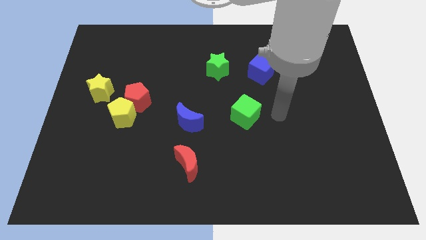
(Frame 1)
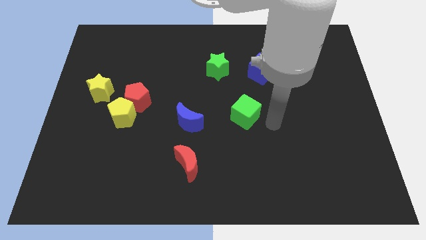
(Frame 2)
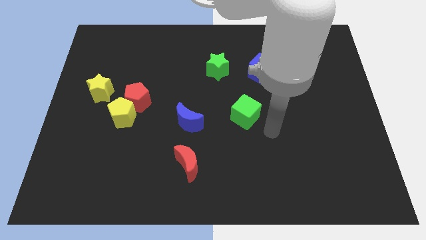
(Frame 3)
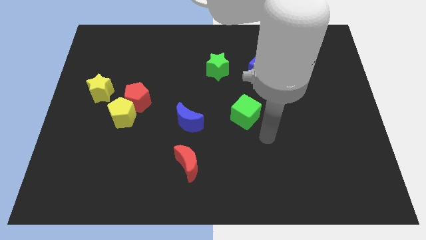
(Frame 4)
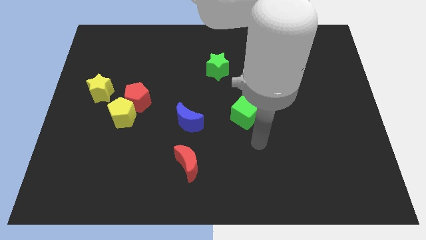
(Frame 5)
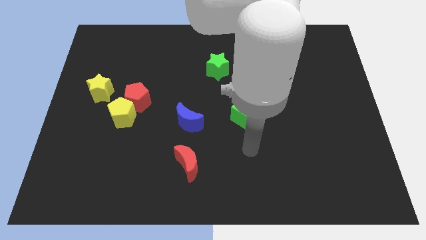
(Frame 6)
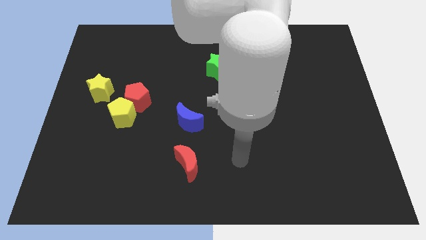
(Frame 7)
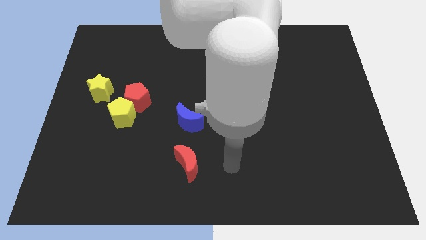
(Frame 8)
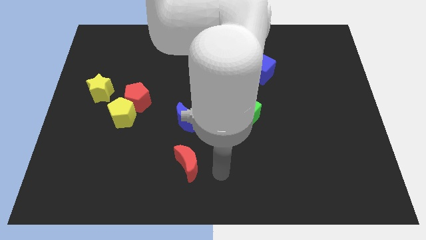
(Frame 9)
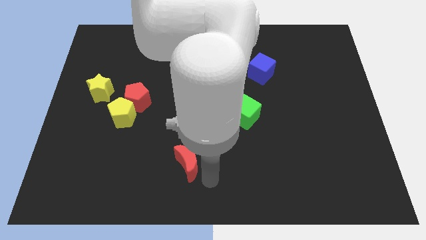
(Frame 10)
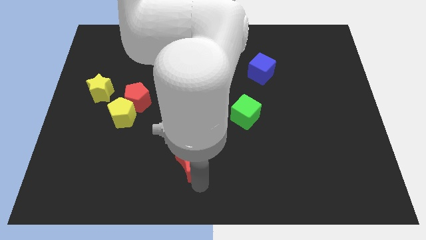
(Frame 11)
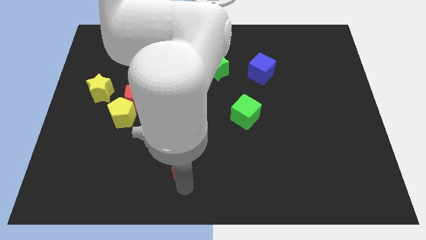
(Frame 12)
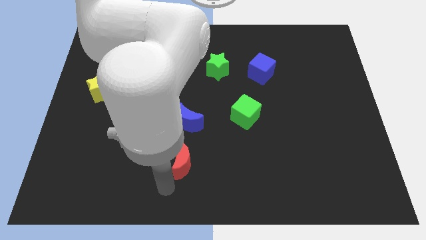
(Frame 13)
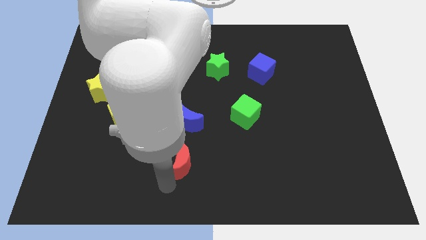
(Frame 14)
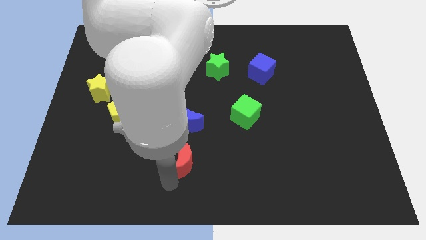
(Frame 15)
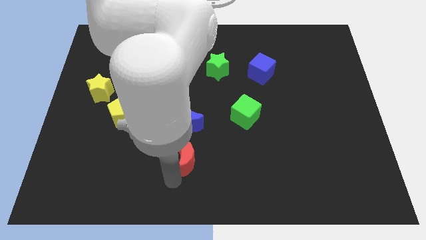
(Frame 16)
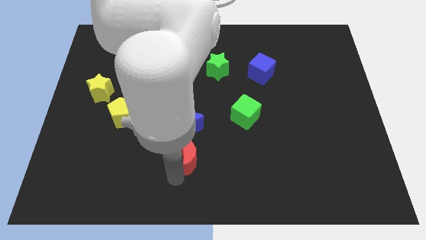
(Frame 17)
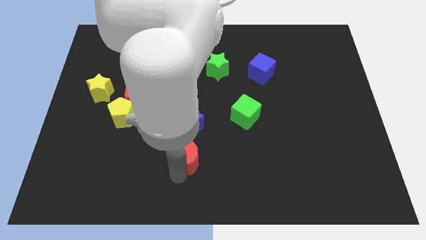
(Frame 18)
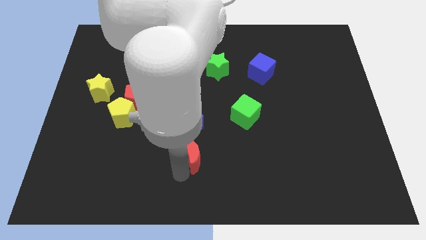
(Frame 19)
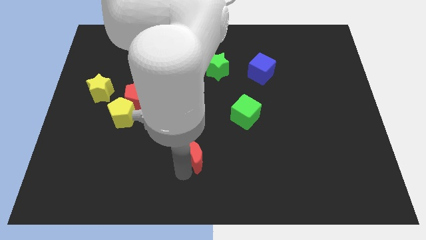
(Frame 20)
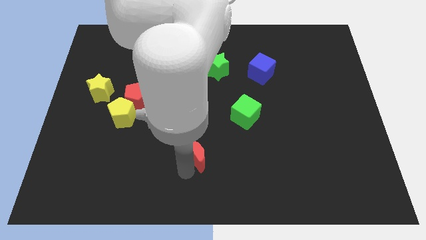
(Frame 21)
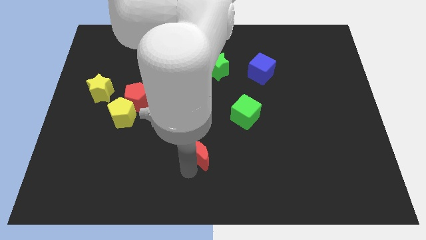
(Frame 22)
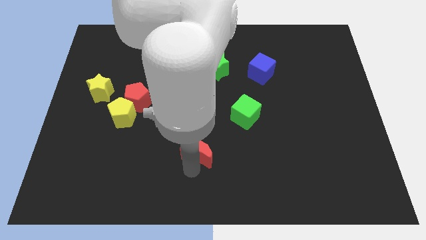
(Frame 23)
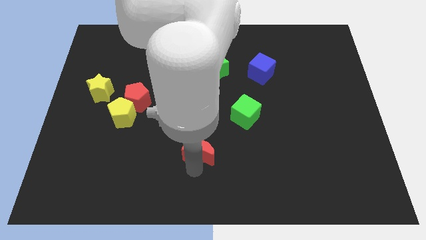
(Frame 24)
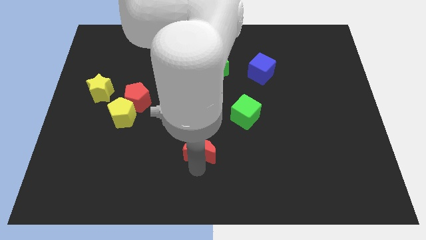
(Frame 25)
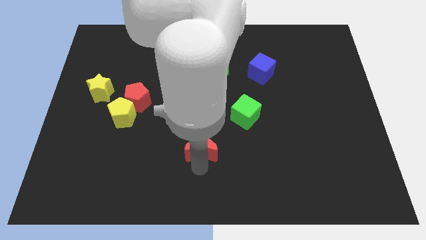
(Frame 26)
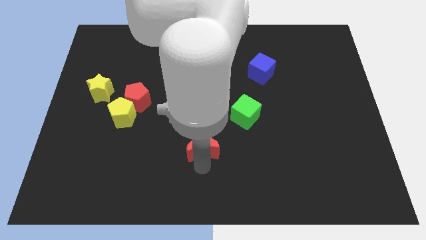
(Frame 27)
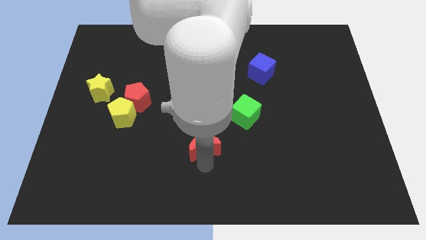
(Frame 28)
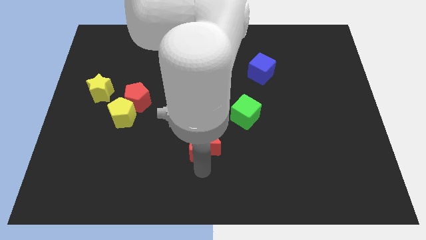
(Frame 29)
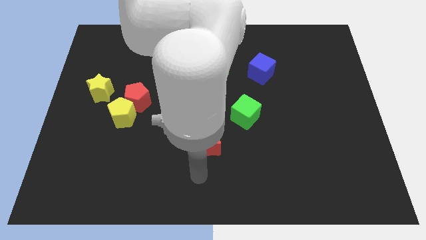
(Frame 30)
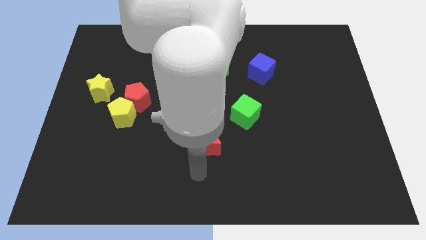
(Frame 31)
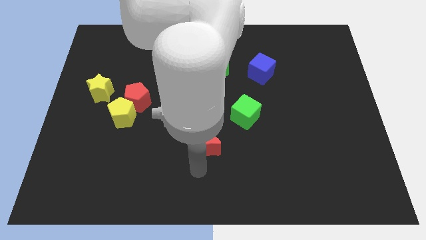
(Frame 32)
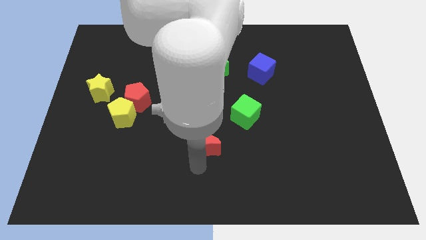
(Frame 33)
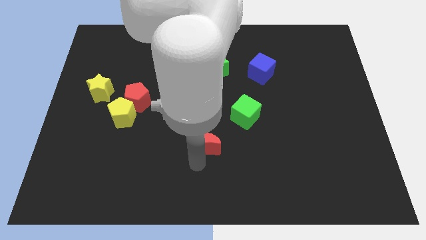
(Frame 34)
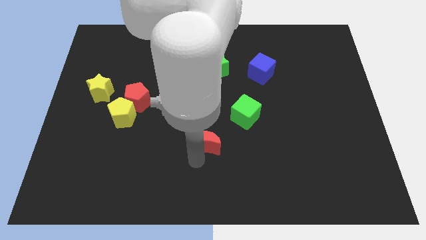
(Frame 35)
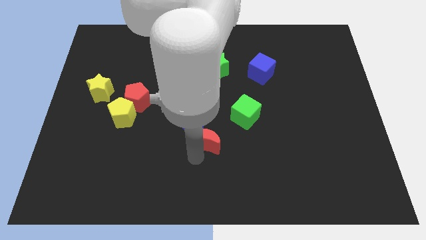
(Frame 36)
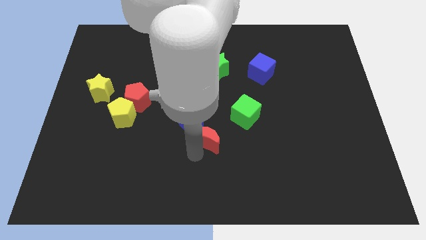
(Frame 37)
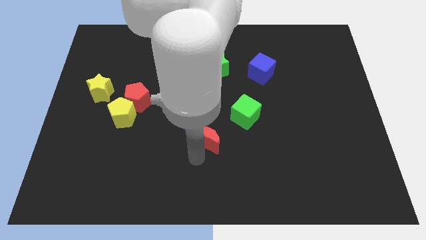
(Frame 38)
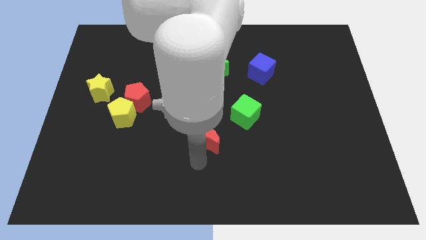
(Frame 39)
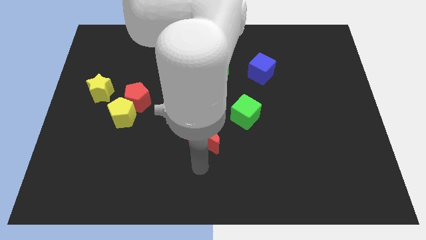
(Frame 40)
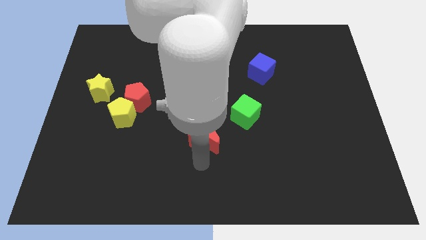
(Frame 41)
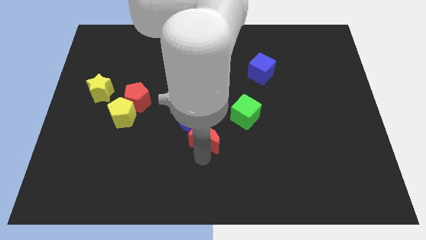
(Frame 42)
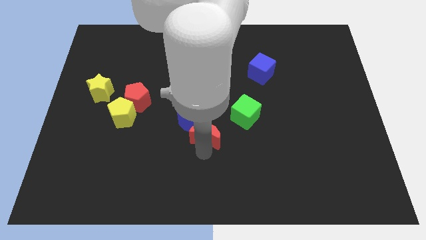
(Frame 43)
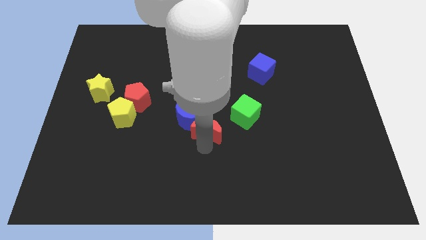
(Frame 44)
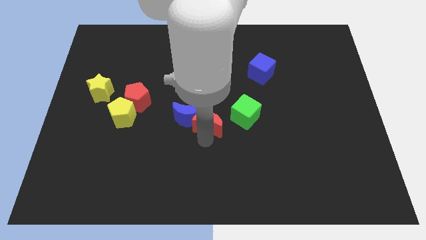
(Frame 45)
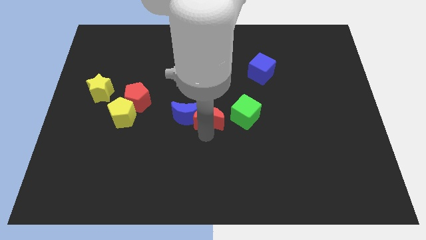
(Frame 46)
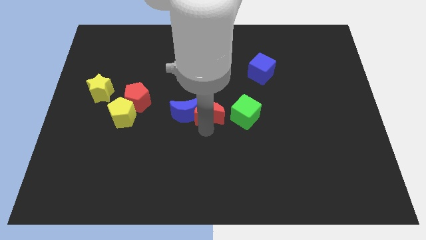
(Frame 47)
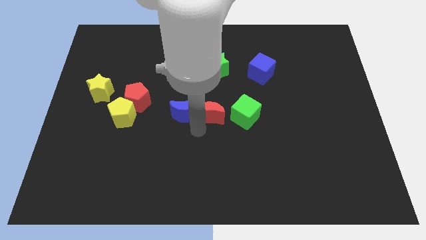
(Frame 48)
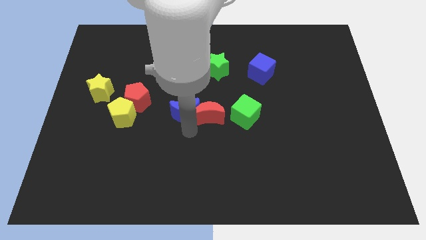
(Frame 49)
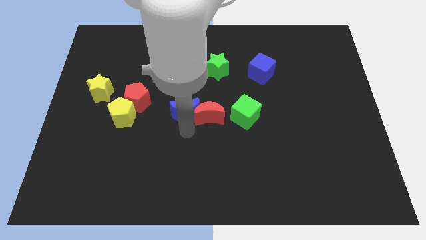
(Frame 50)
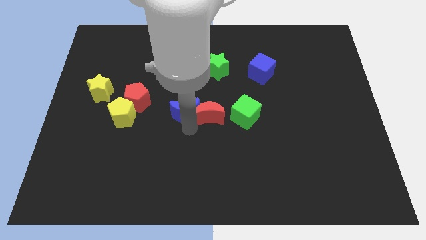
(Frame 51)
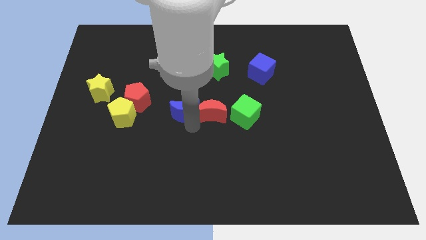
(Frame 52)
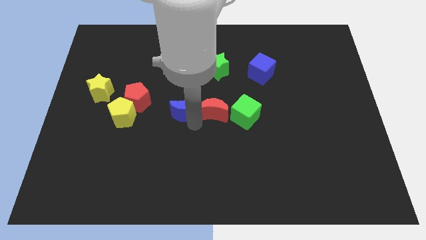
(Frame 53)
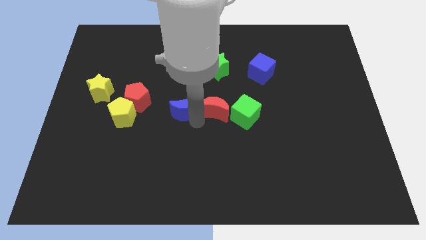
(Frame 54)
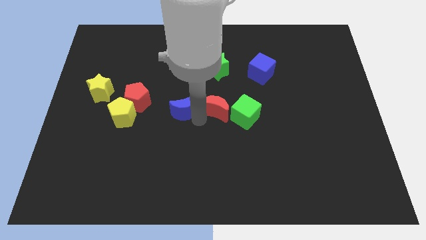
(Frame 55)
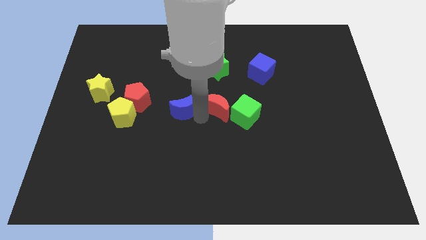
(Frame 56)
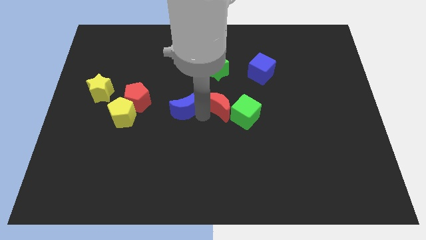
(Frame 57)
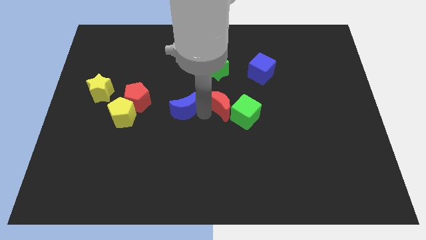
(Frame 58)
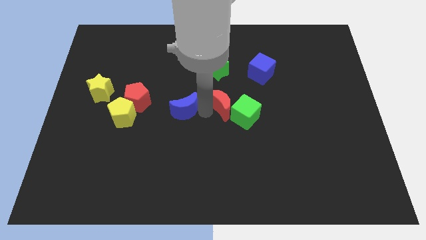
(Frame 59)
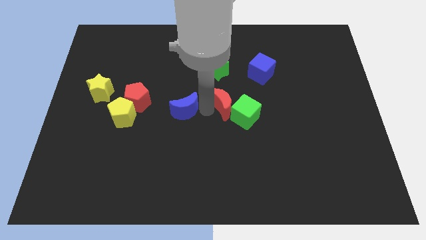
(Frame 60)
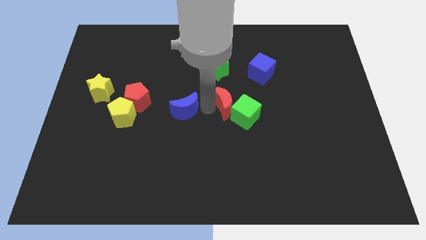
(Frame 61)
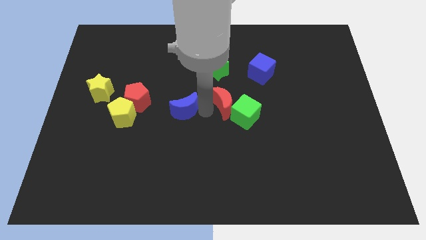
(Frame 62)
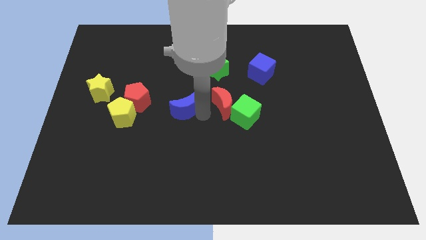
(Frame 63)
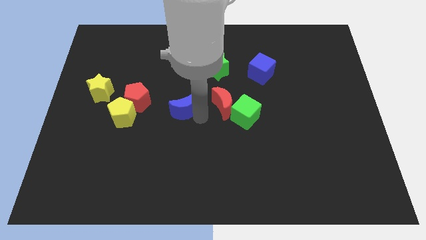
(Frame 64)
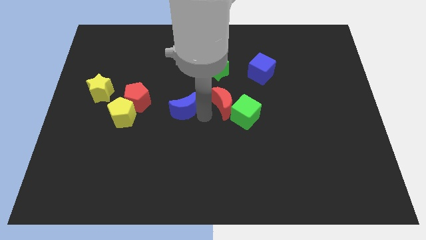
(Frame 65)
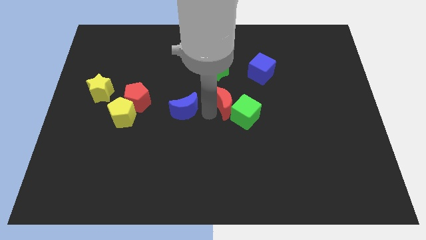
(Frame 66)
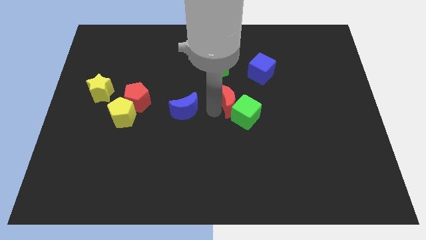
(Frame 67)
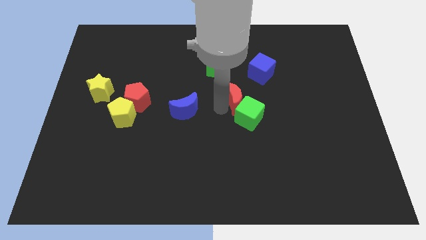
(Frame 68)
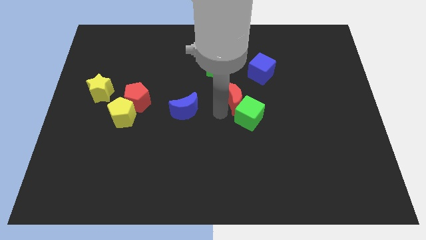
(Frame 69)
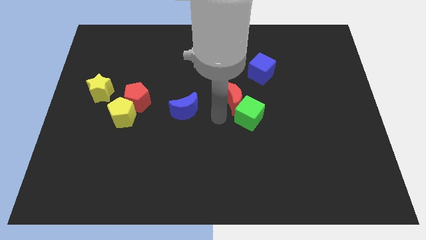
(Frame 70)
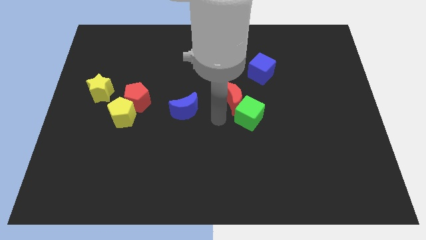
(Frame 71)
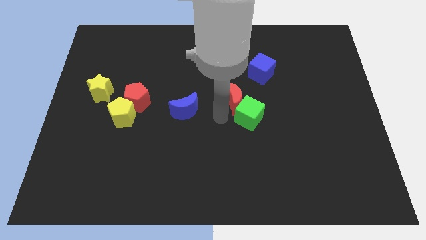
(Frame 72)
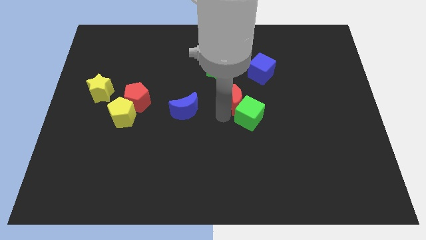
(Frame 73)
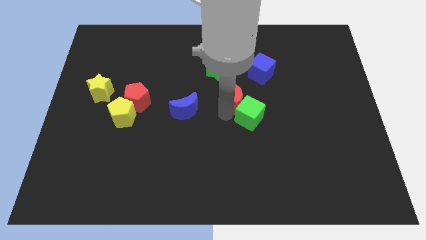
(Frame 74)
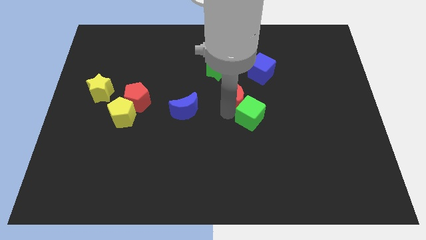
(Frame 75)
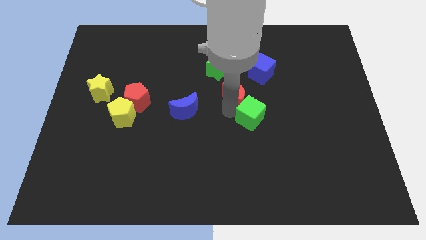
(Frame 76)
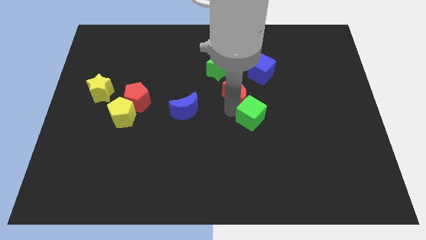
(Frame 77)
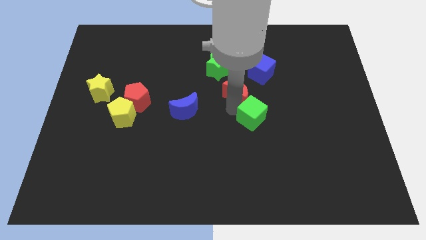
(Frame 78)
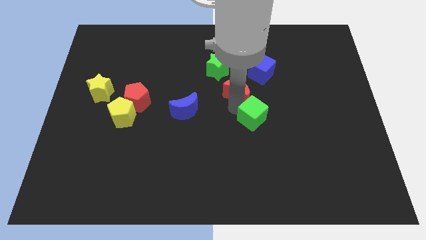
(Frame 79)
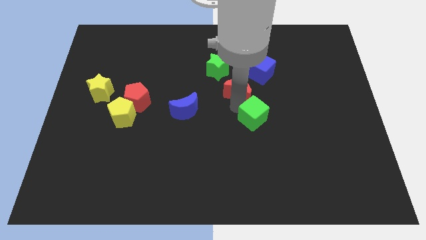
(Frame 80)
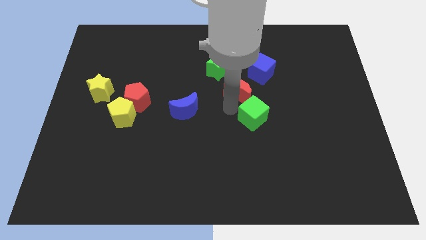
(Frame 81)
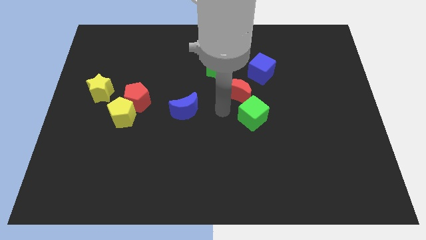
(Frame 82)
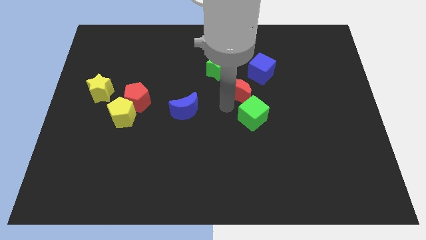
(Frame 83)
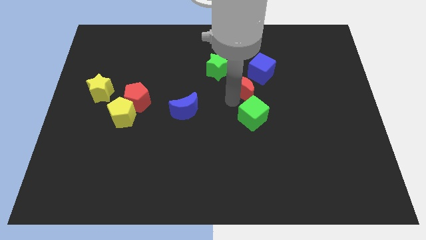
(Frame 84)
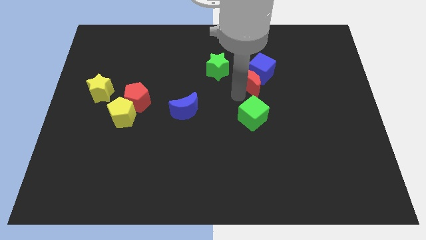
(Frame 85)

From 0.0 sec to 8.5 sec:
move the red moon to the blue cube
